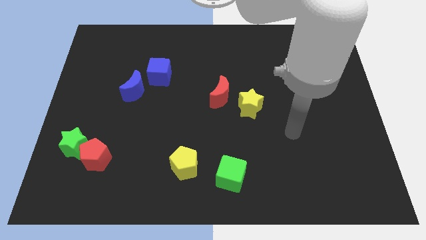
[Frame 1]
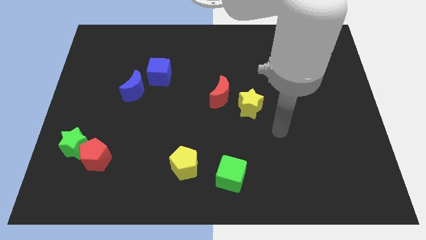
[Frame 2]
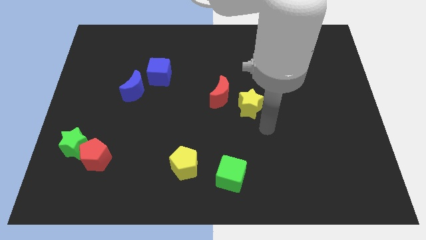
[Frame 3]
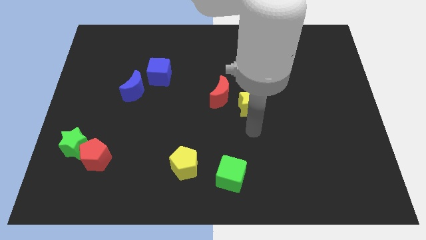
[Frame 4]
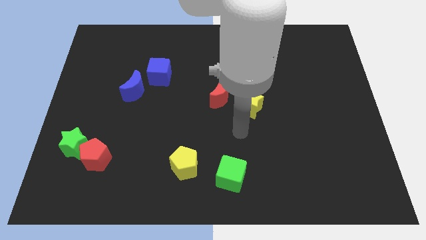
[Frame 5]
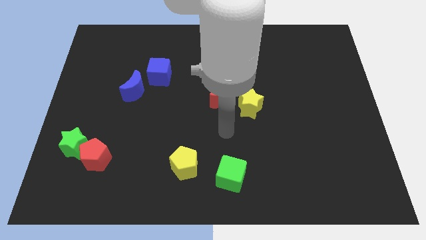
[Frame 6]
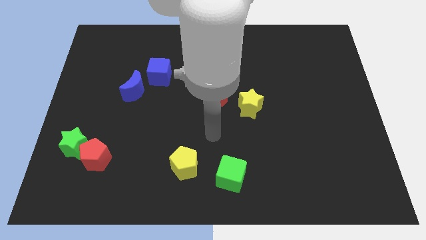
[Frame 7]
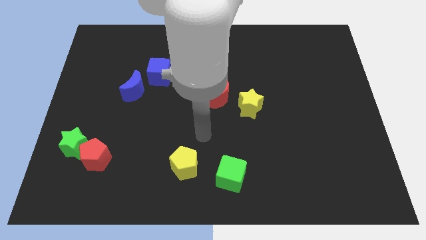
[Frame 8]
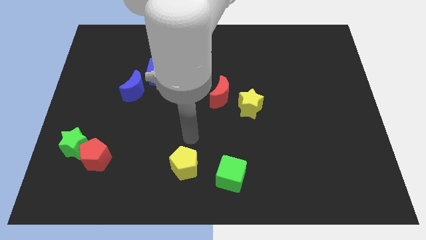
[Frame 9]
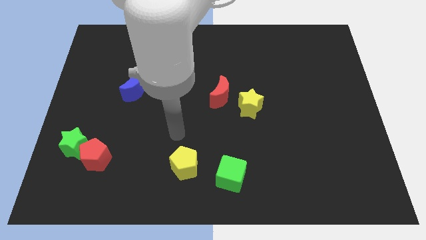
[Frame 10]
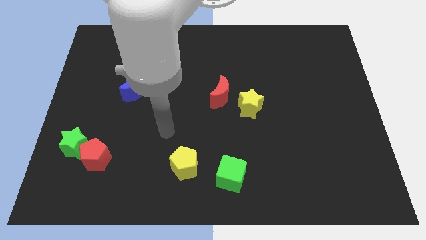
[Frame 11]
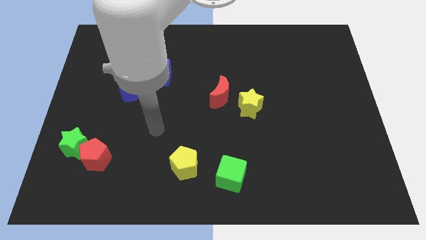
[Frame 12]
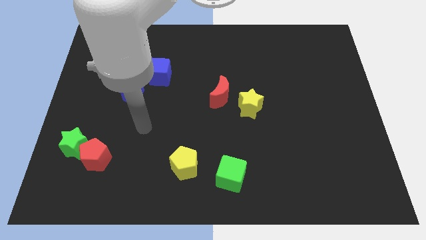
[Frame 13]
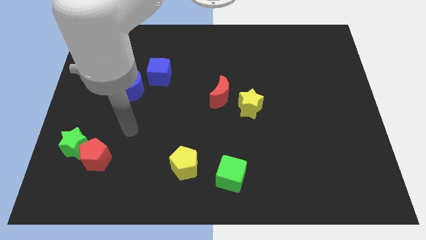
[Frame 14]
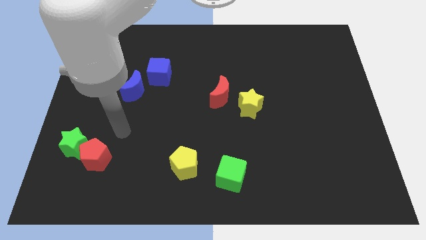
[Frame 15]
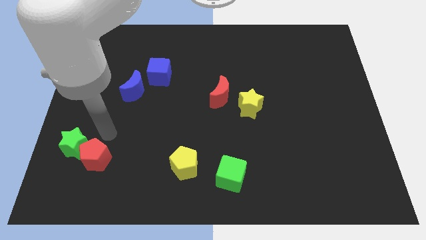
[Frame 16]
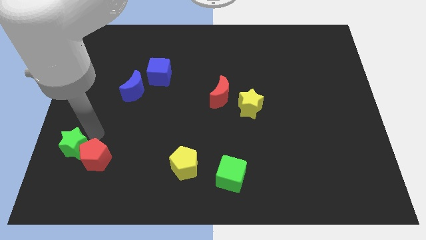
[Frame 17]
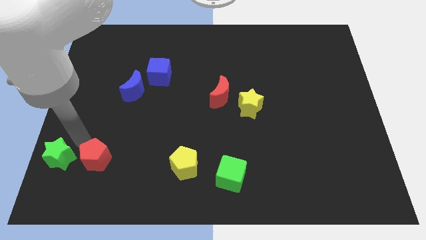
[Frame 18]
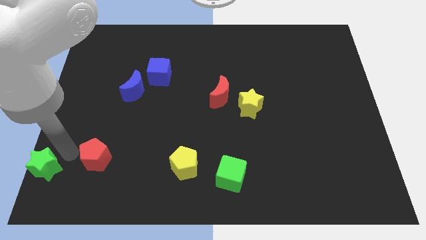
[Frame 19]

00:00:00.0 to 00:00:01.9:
move the red pentagon away from the green star

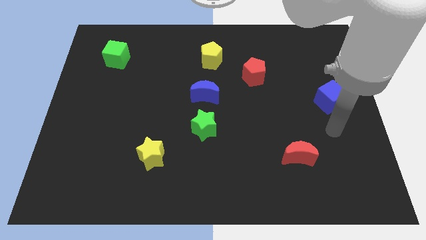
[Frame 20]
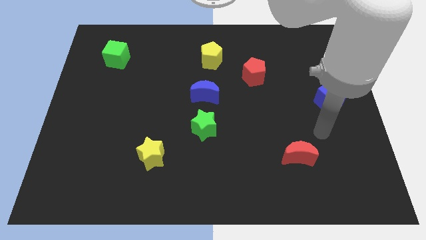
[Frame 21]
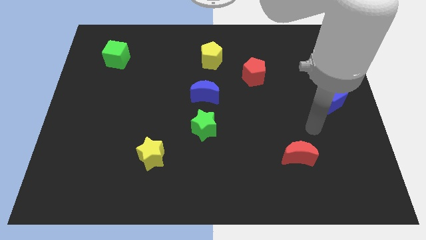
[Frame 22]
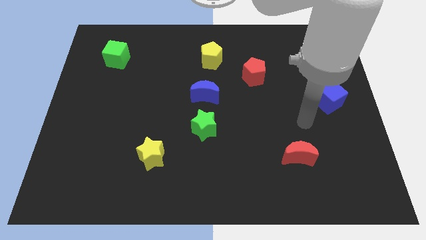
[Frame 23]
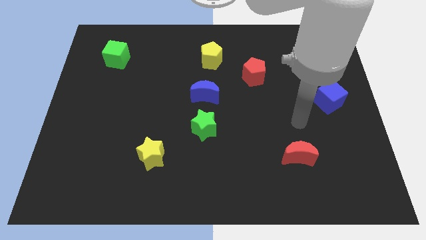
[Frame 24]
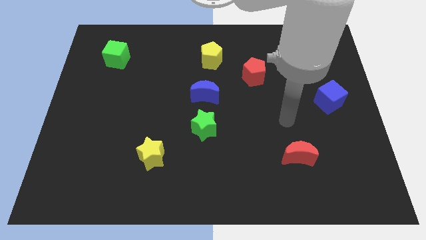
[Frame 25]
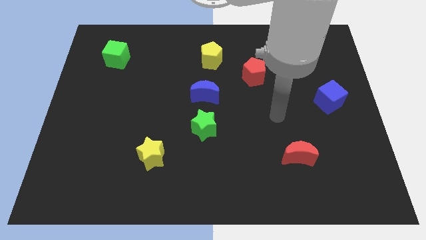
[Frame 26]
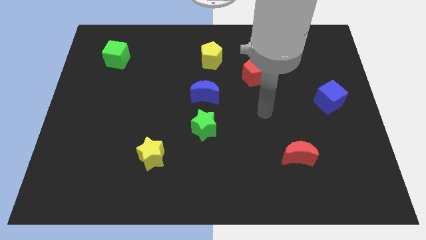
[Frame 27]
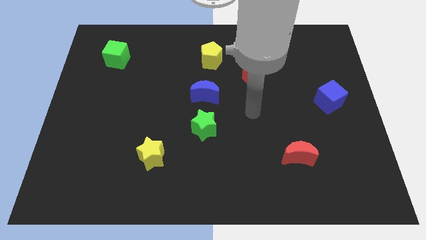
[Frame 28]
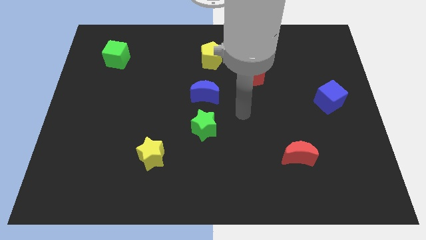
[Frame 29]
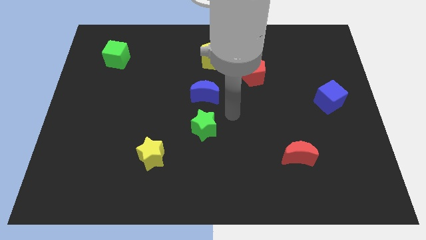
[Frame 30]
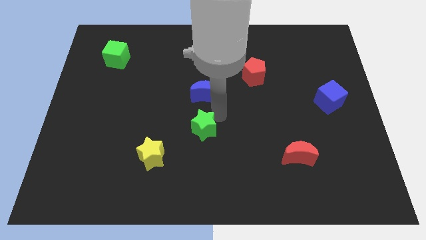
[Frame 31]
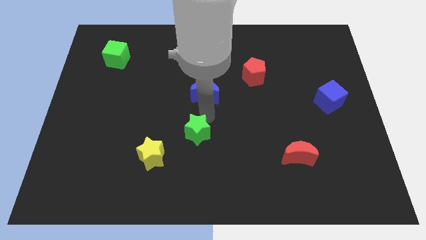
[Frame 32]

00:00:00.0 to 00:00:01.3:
pull the blue moon apart from the green star

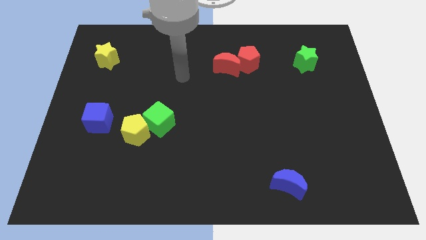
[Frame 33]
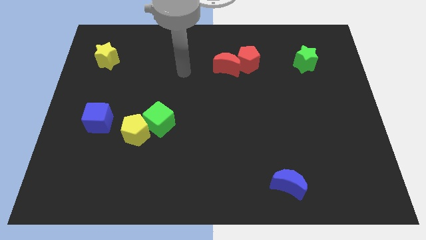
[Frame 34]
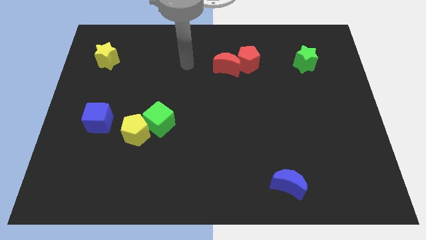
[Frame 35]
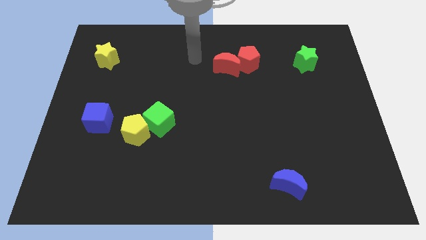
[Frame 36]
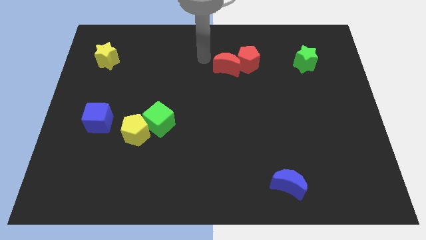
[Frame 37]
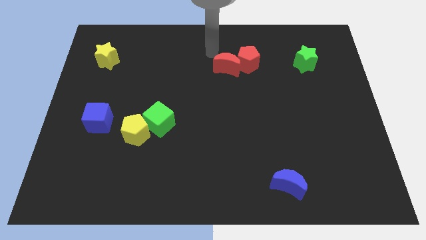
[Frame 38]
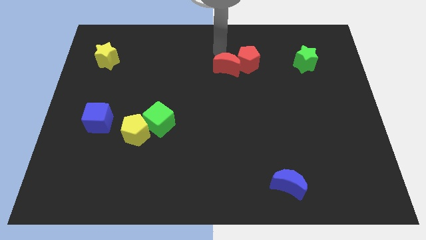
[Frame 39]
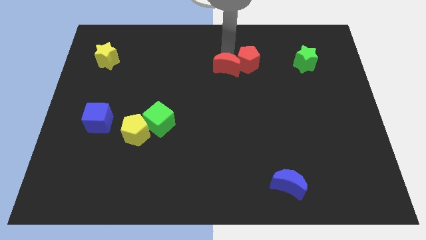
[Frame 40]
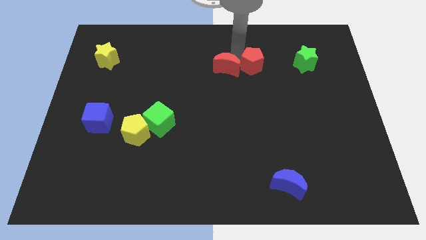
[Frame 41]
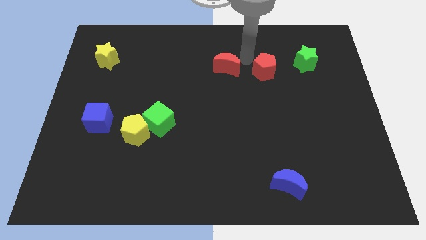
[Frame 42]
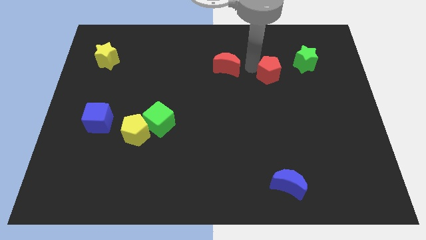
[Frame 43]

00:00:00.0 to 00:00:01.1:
separate the red moon from the red pentagon

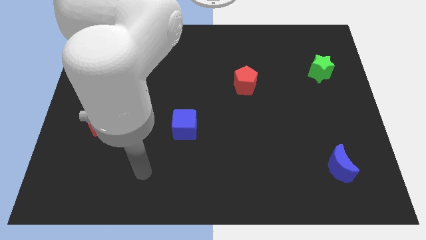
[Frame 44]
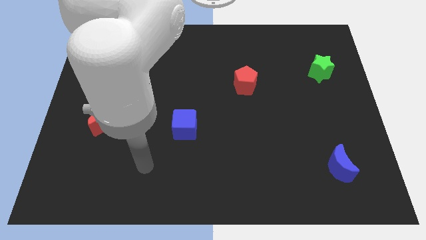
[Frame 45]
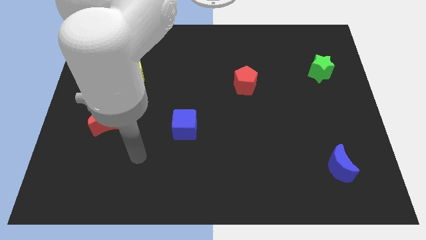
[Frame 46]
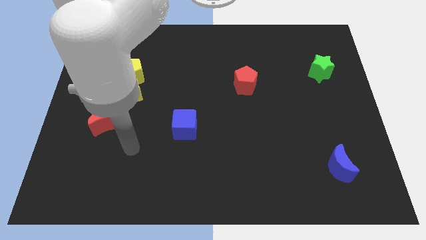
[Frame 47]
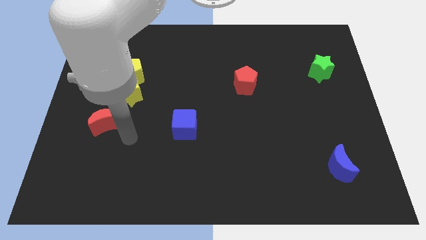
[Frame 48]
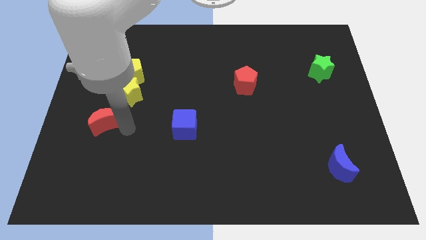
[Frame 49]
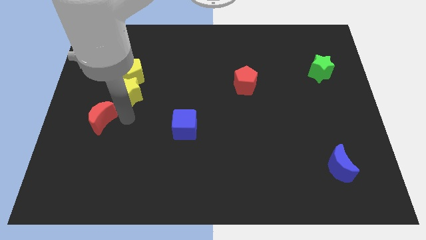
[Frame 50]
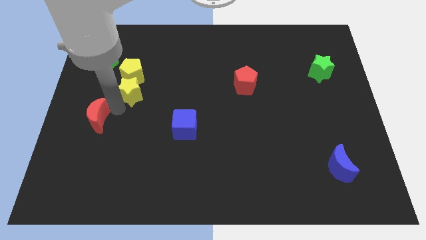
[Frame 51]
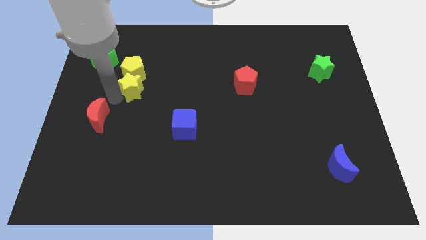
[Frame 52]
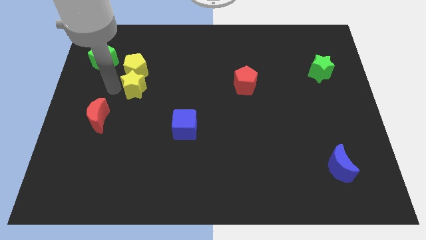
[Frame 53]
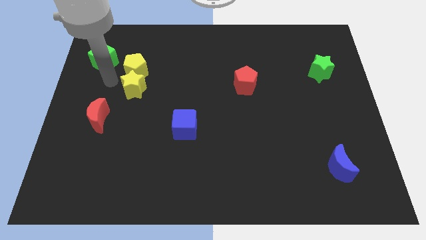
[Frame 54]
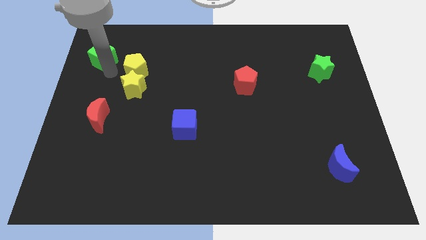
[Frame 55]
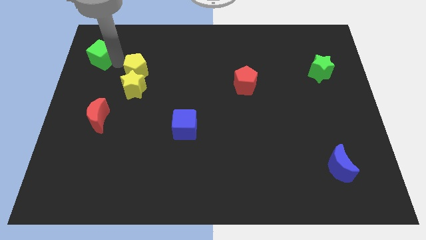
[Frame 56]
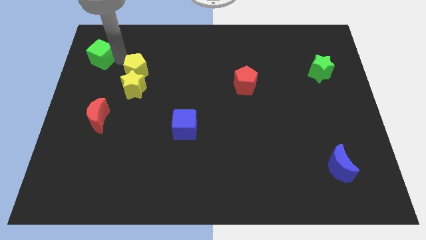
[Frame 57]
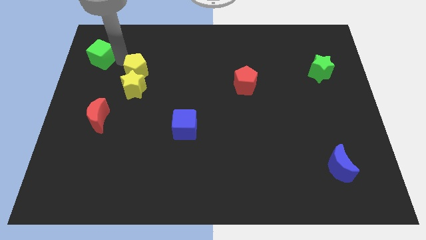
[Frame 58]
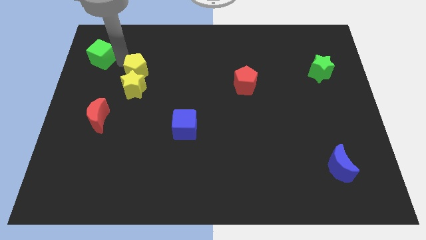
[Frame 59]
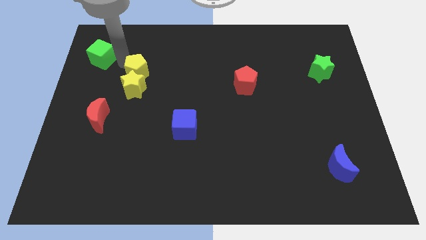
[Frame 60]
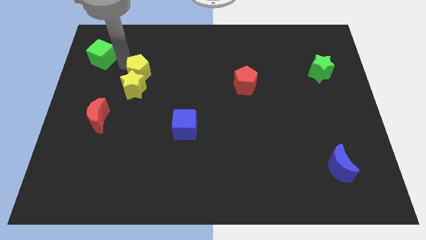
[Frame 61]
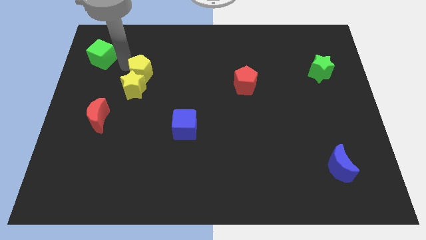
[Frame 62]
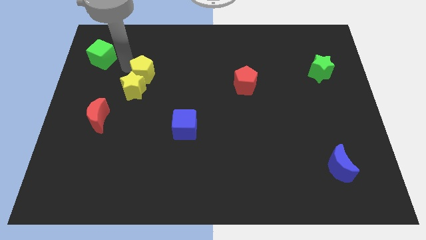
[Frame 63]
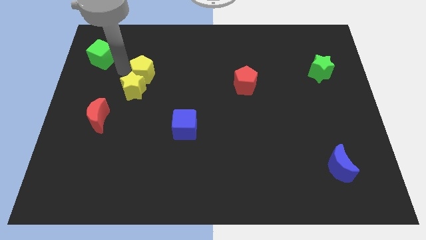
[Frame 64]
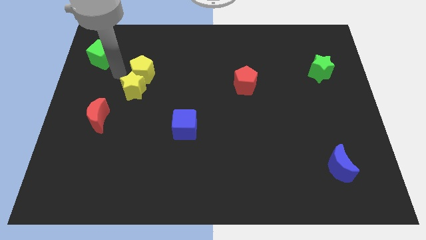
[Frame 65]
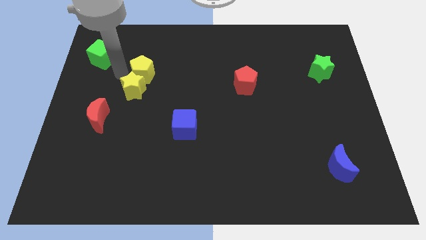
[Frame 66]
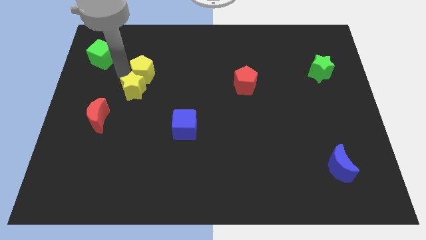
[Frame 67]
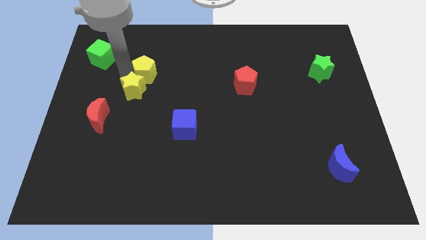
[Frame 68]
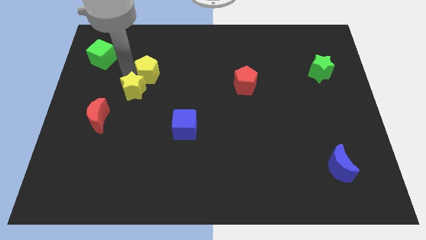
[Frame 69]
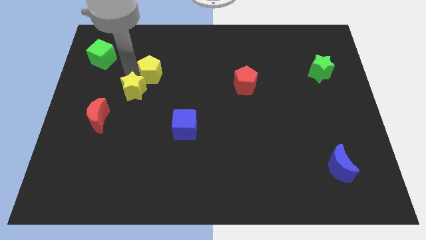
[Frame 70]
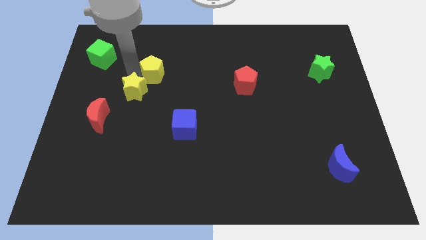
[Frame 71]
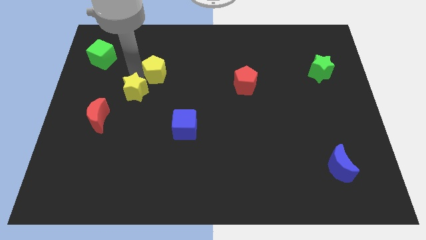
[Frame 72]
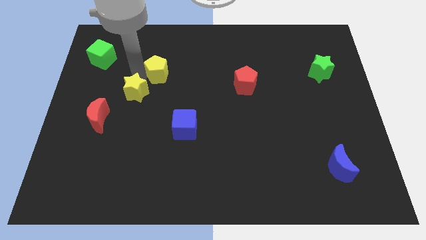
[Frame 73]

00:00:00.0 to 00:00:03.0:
separate the yellow pentagon from the yellow star and green cube

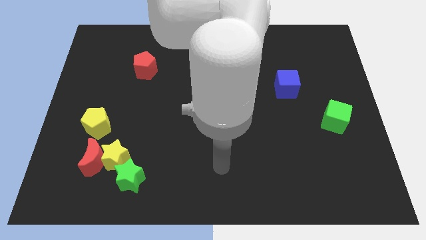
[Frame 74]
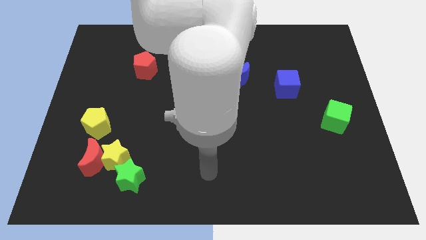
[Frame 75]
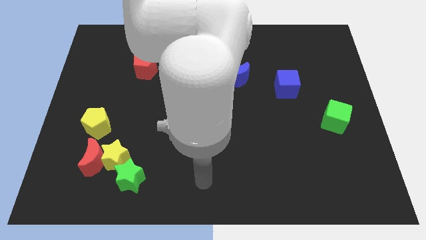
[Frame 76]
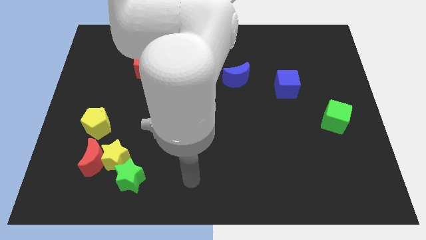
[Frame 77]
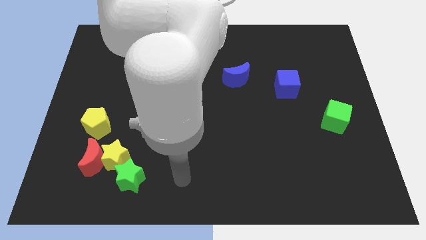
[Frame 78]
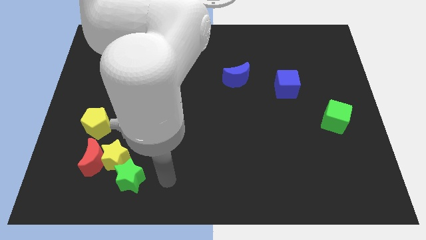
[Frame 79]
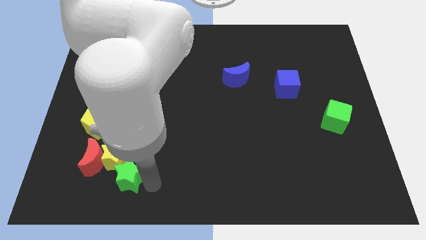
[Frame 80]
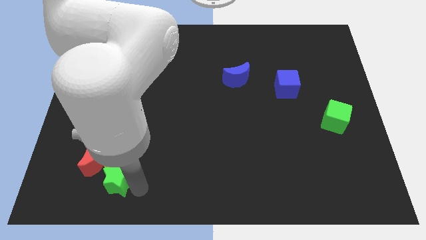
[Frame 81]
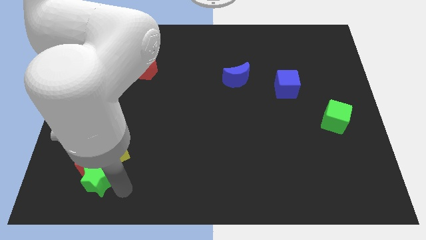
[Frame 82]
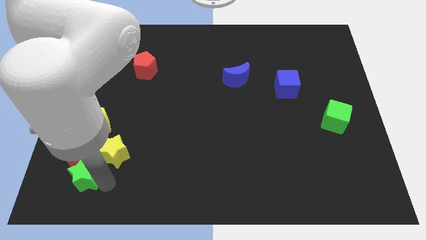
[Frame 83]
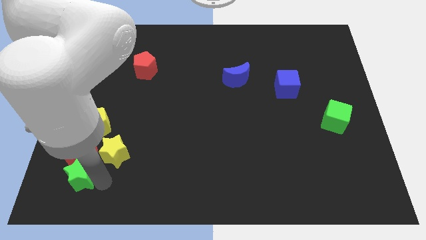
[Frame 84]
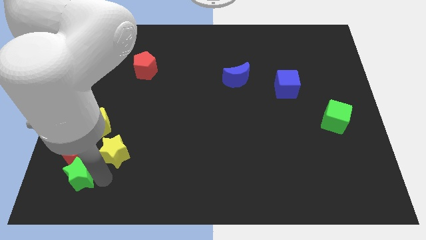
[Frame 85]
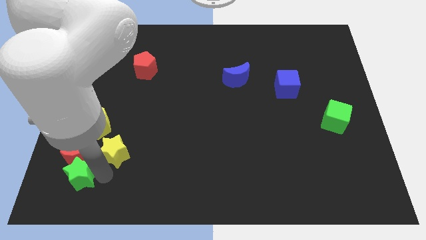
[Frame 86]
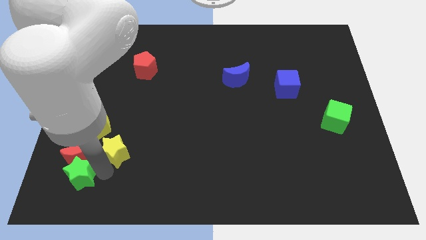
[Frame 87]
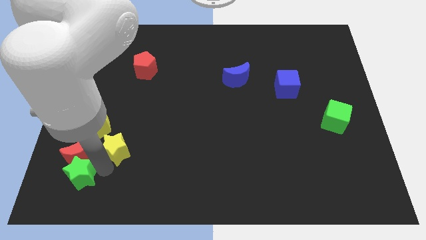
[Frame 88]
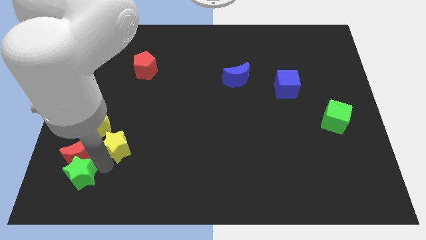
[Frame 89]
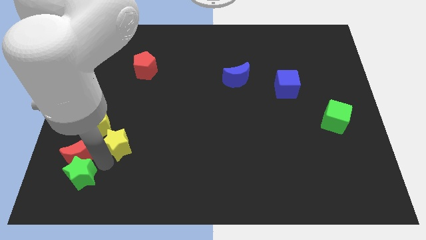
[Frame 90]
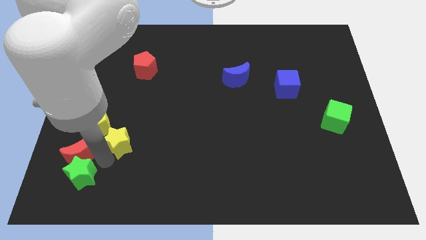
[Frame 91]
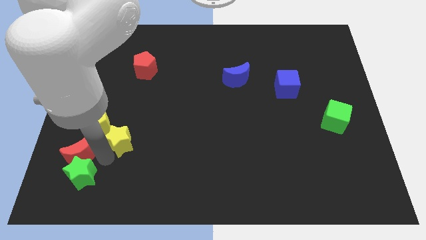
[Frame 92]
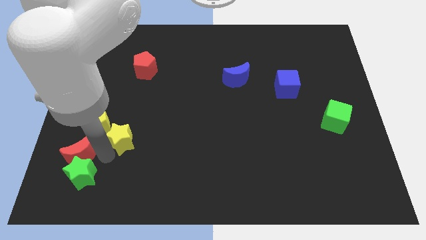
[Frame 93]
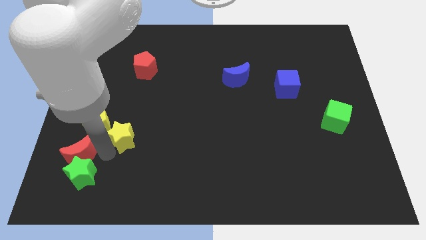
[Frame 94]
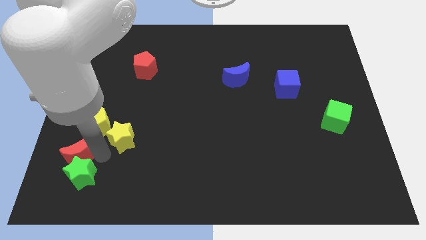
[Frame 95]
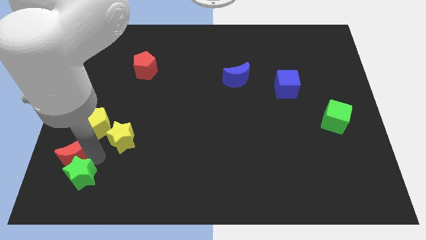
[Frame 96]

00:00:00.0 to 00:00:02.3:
separate the yellow star from the red moon and green star
